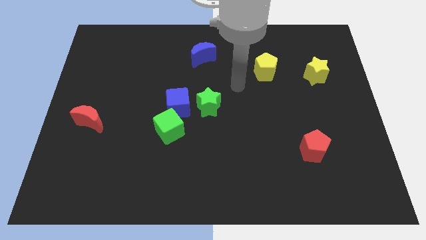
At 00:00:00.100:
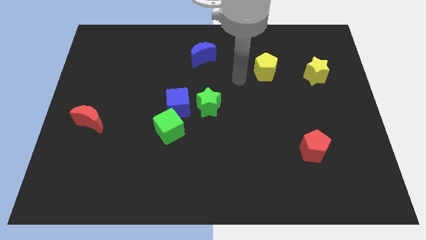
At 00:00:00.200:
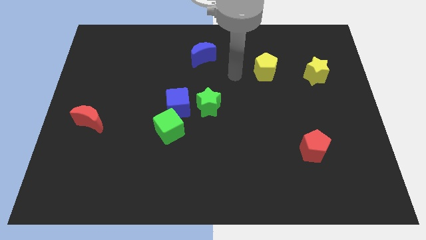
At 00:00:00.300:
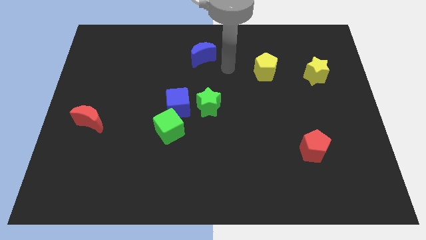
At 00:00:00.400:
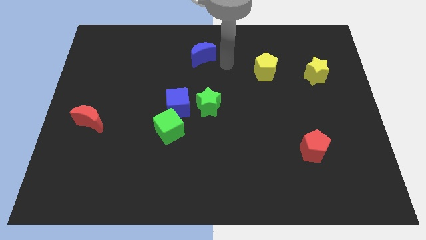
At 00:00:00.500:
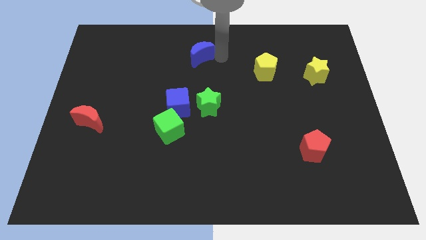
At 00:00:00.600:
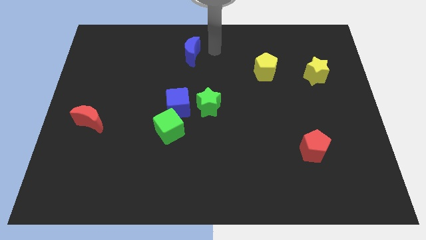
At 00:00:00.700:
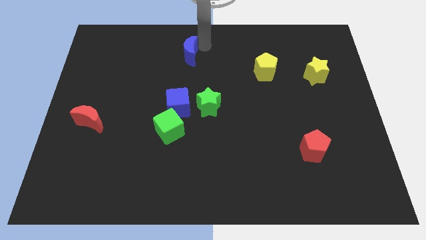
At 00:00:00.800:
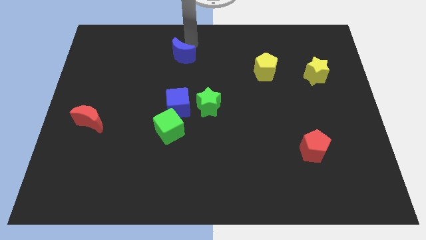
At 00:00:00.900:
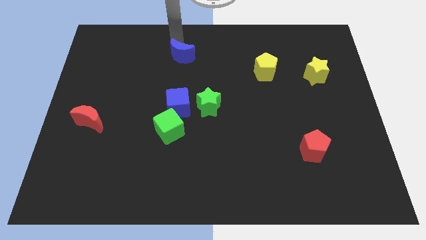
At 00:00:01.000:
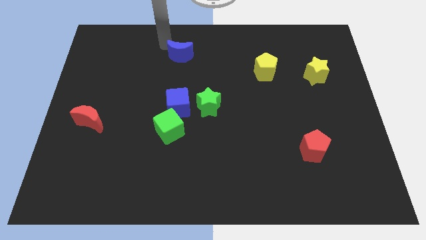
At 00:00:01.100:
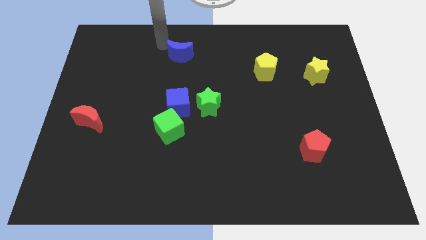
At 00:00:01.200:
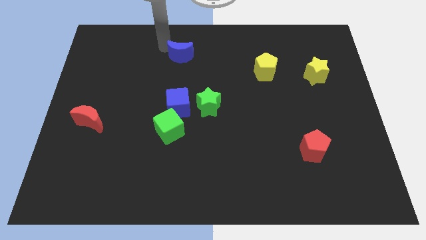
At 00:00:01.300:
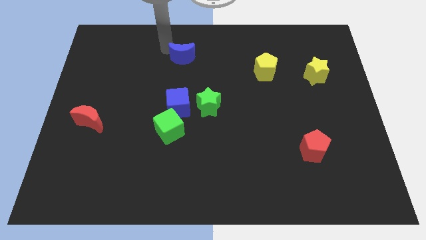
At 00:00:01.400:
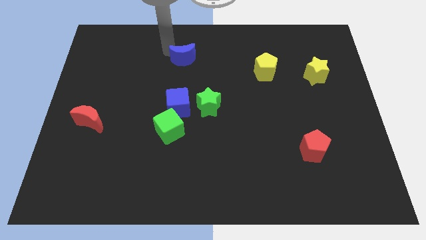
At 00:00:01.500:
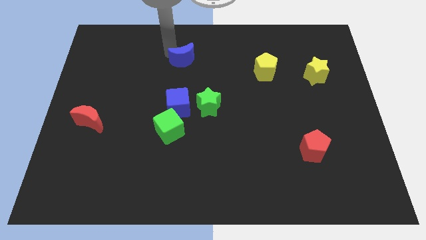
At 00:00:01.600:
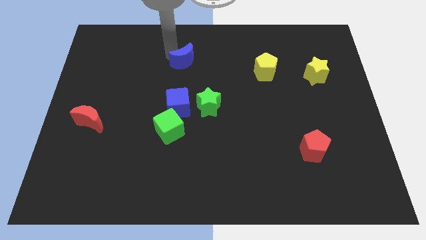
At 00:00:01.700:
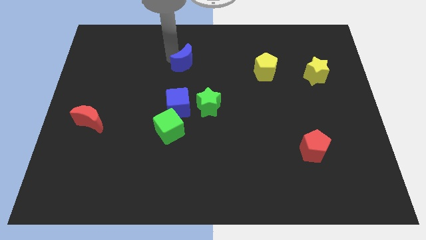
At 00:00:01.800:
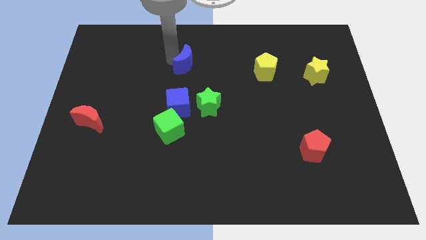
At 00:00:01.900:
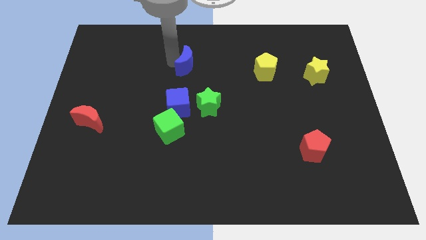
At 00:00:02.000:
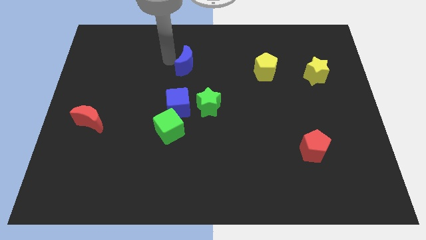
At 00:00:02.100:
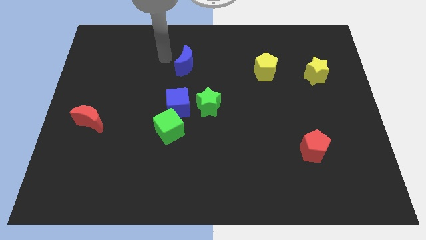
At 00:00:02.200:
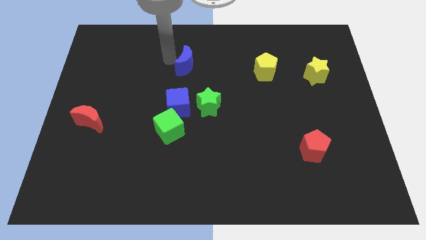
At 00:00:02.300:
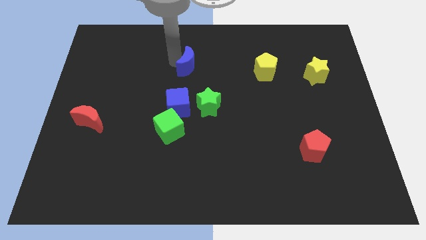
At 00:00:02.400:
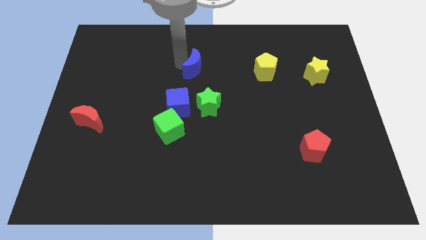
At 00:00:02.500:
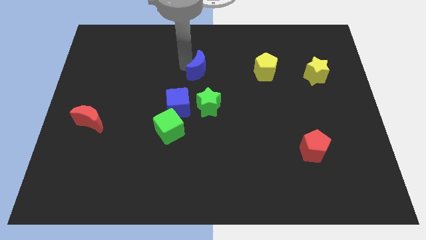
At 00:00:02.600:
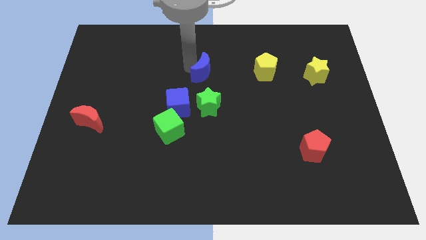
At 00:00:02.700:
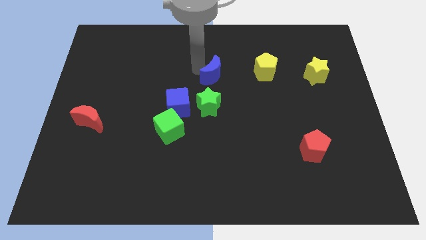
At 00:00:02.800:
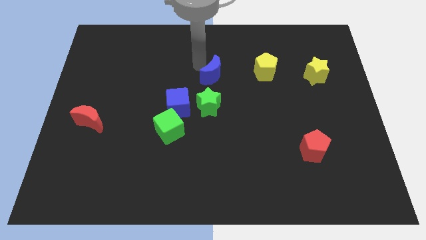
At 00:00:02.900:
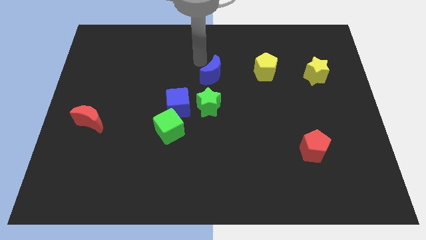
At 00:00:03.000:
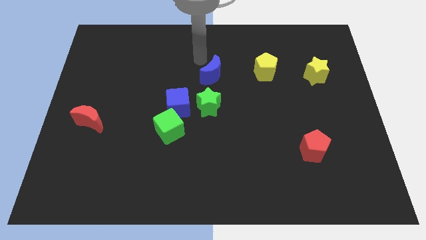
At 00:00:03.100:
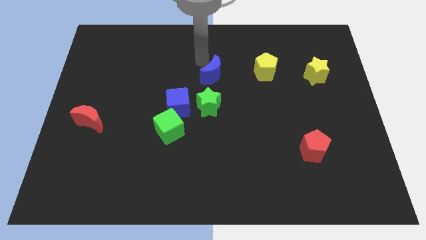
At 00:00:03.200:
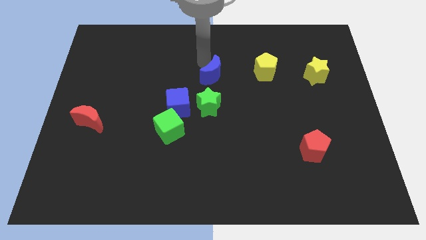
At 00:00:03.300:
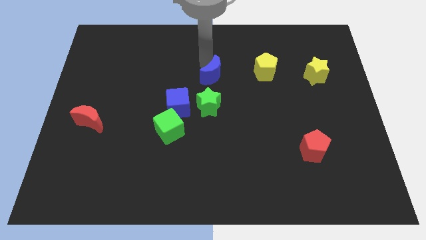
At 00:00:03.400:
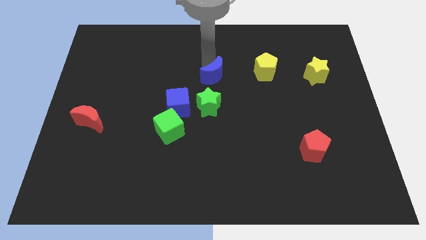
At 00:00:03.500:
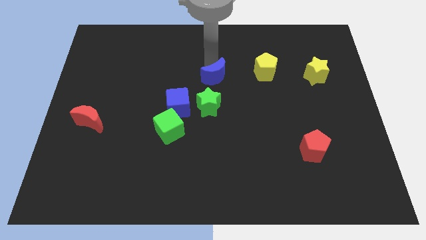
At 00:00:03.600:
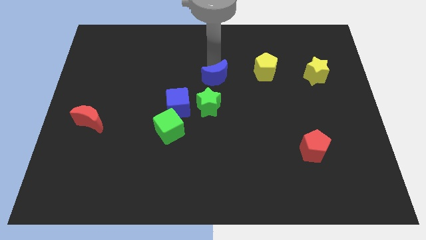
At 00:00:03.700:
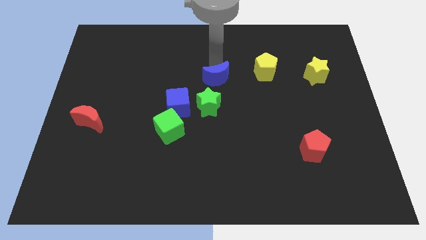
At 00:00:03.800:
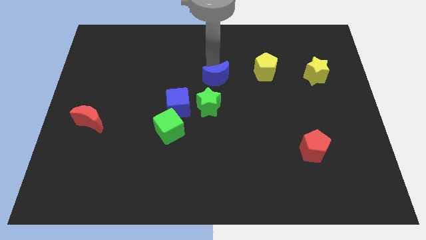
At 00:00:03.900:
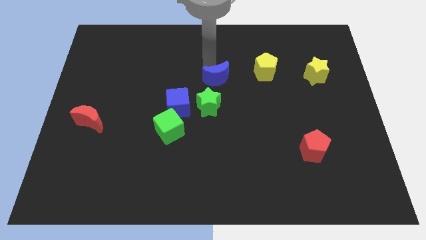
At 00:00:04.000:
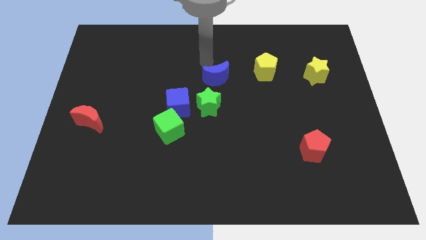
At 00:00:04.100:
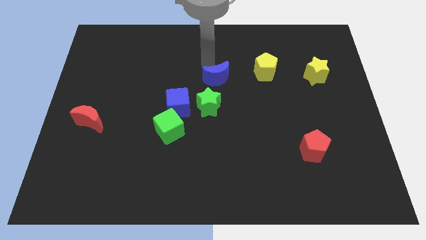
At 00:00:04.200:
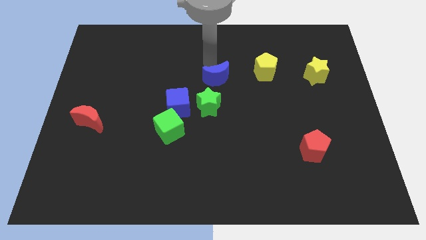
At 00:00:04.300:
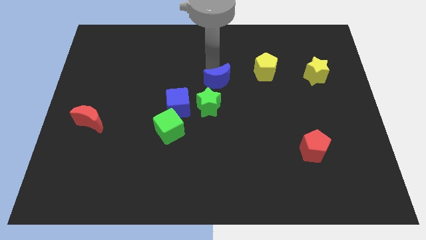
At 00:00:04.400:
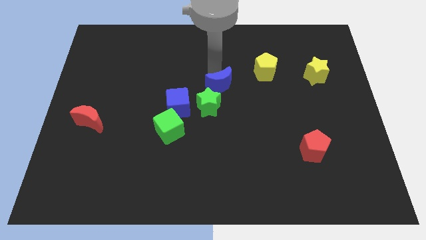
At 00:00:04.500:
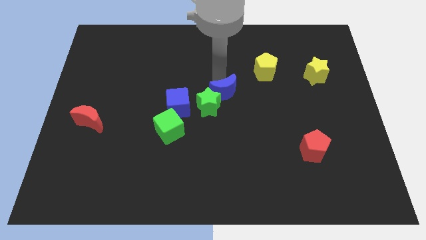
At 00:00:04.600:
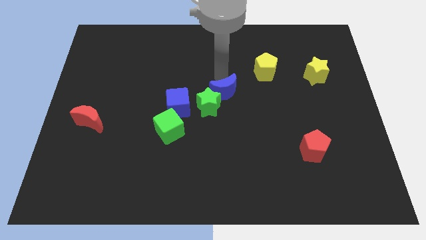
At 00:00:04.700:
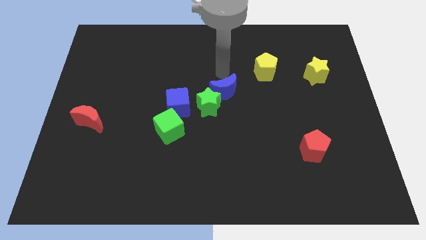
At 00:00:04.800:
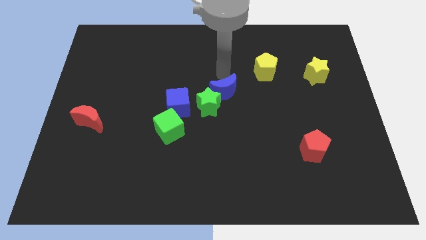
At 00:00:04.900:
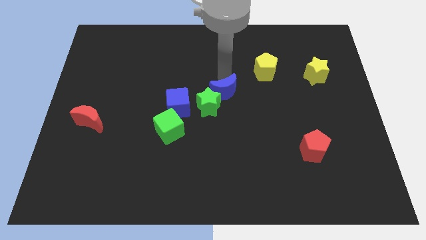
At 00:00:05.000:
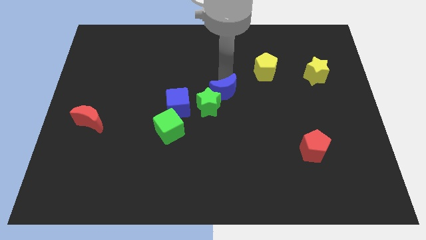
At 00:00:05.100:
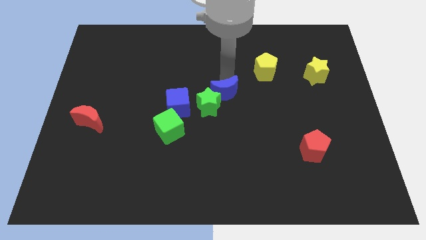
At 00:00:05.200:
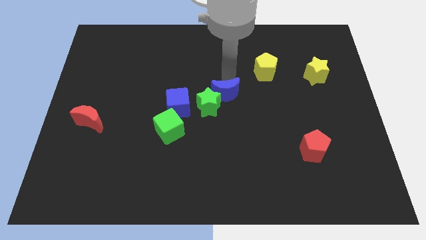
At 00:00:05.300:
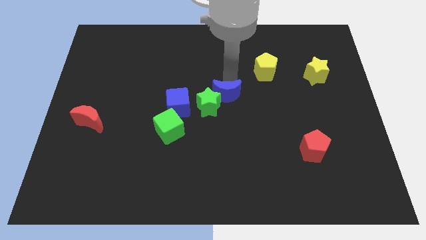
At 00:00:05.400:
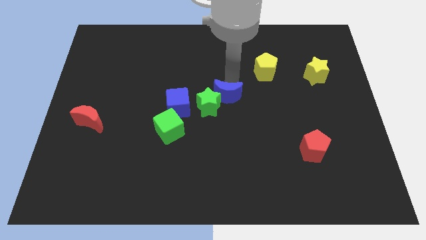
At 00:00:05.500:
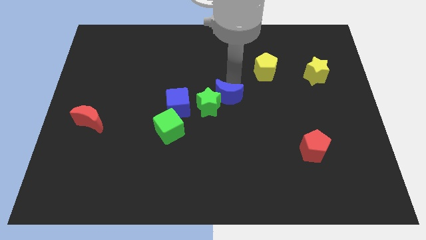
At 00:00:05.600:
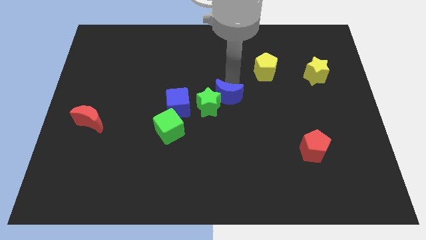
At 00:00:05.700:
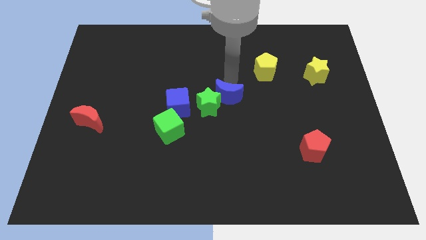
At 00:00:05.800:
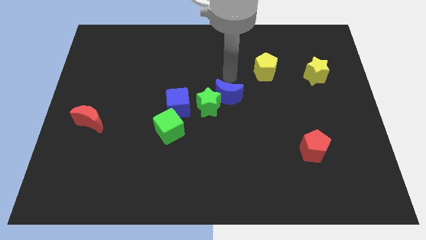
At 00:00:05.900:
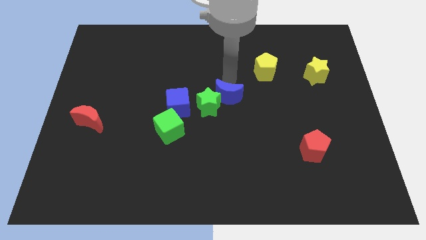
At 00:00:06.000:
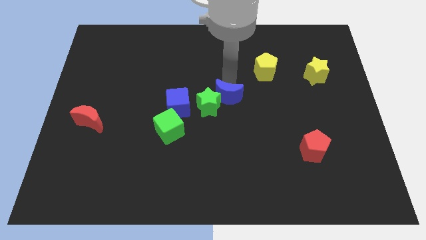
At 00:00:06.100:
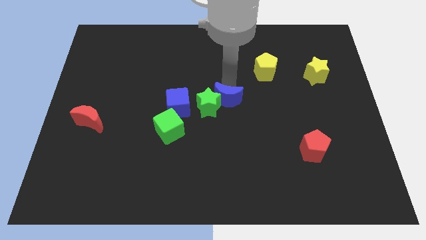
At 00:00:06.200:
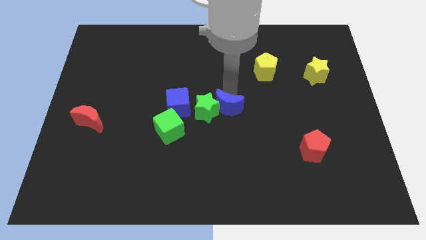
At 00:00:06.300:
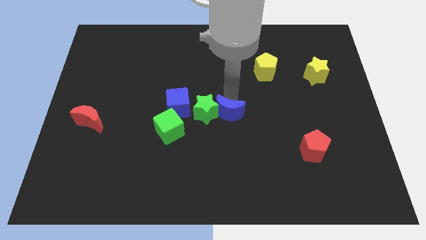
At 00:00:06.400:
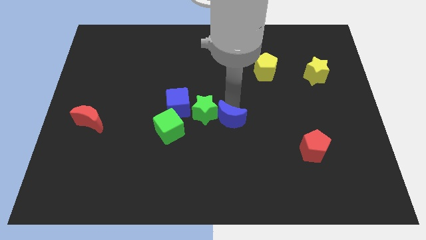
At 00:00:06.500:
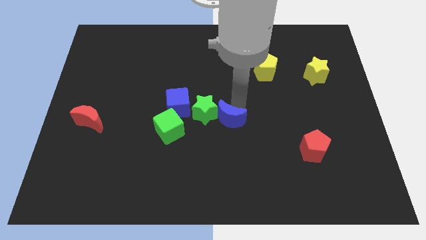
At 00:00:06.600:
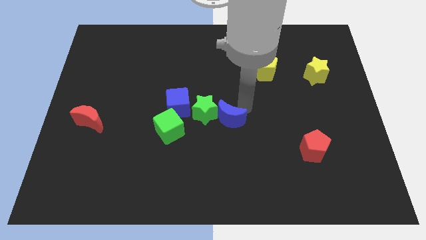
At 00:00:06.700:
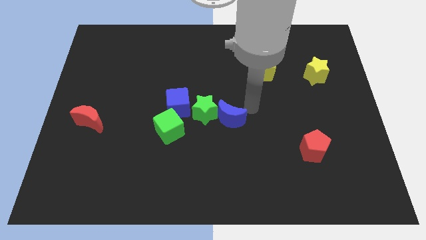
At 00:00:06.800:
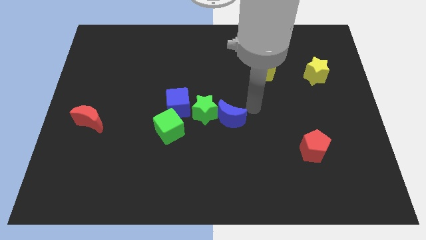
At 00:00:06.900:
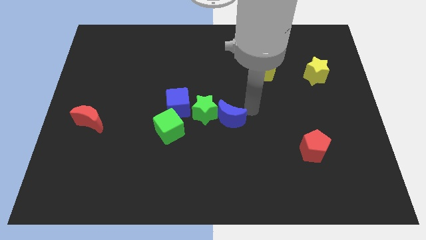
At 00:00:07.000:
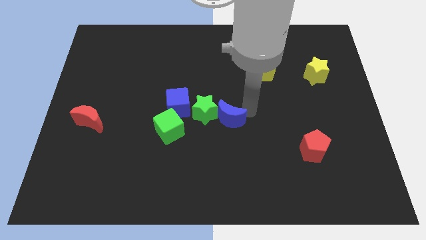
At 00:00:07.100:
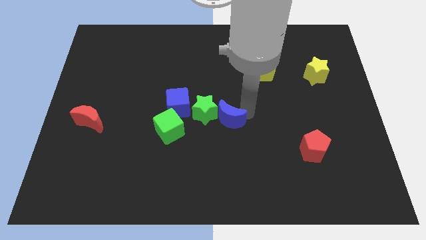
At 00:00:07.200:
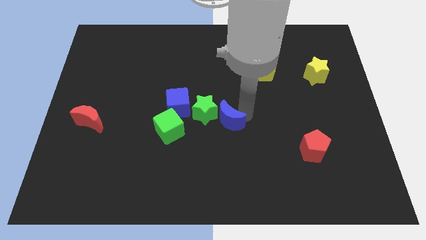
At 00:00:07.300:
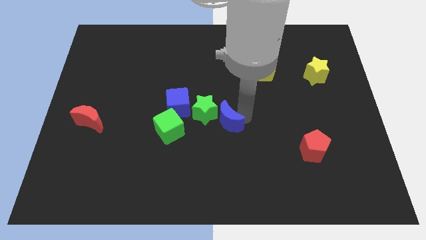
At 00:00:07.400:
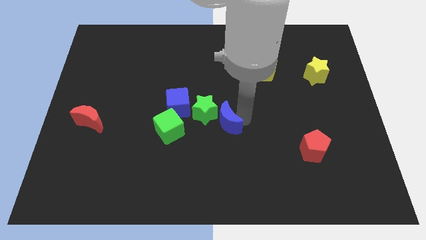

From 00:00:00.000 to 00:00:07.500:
move the blue moon downwards

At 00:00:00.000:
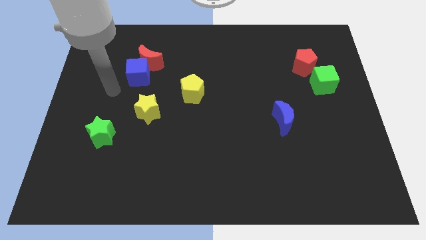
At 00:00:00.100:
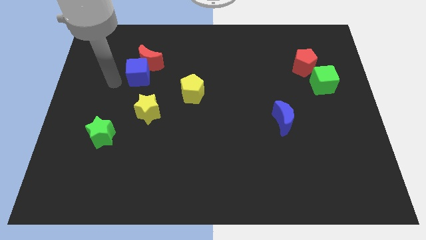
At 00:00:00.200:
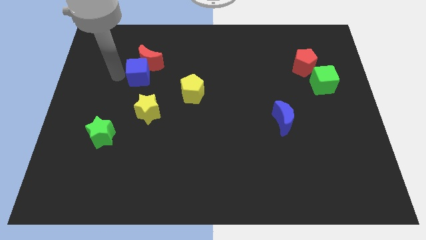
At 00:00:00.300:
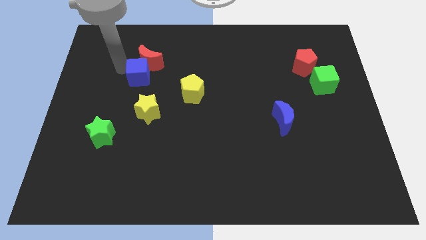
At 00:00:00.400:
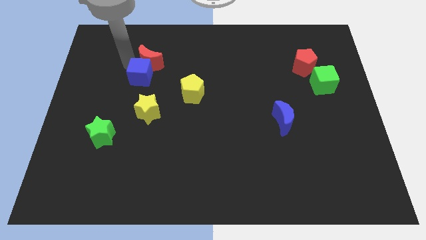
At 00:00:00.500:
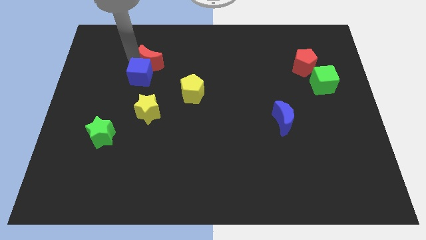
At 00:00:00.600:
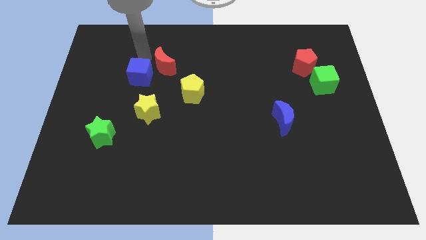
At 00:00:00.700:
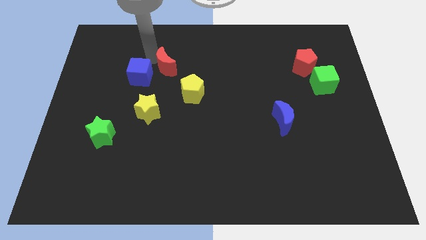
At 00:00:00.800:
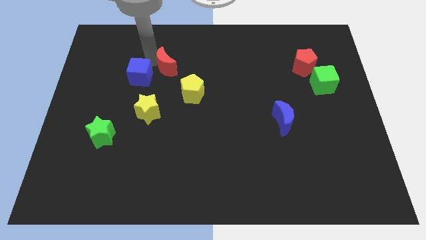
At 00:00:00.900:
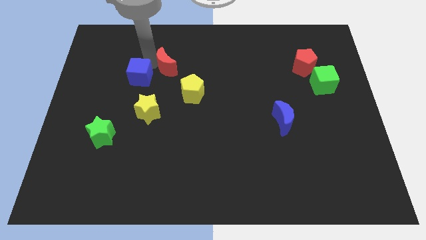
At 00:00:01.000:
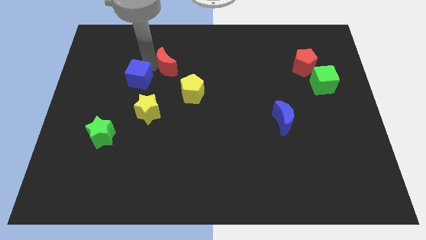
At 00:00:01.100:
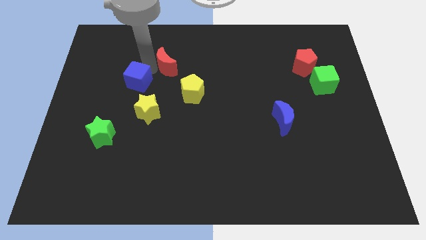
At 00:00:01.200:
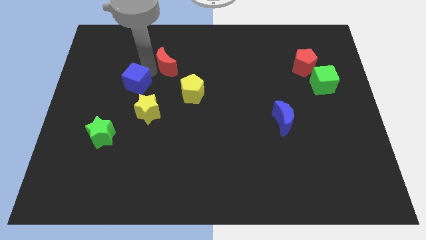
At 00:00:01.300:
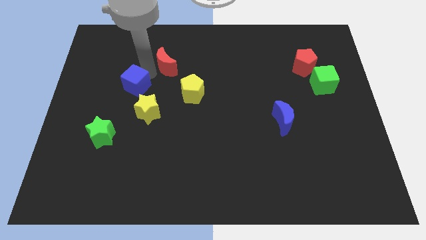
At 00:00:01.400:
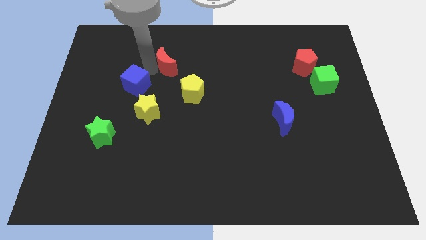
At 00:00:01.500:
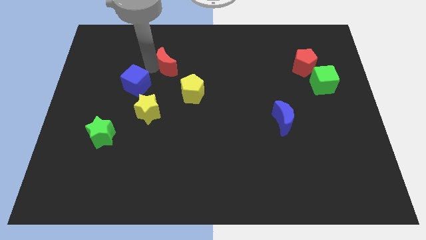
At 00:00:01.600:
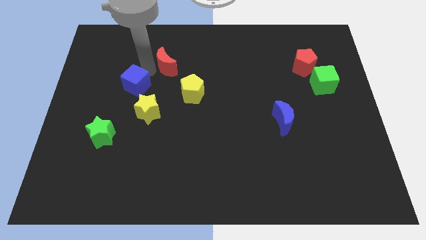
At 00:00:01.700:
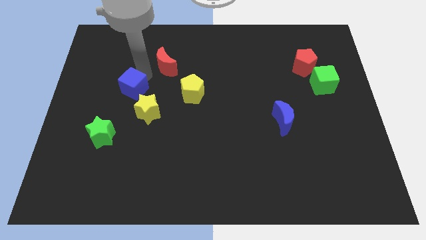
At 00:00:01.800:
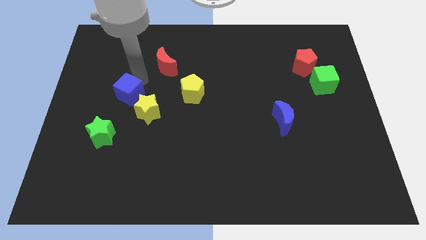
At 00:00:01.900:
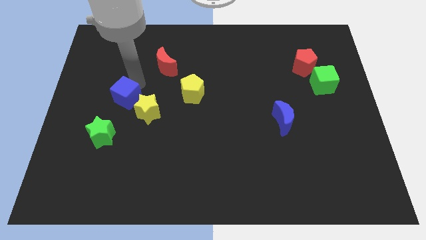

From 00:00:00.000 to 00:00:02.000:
push the blue cube downwards a little bit
